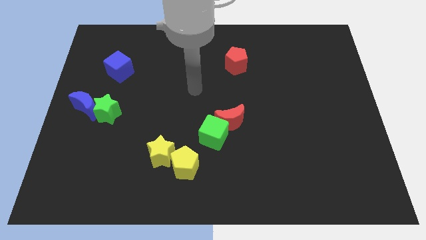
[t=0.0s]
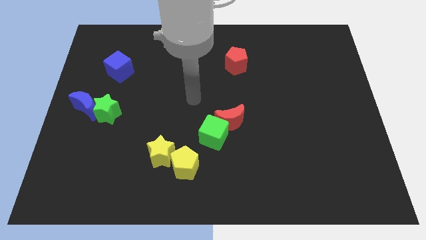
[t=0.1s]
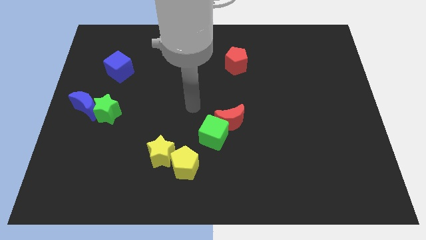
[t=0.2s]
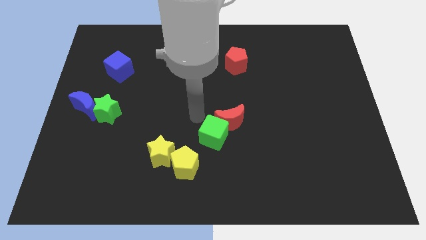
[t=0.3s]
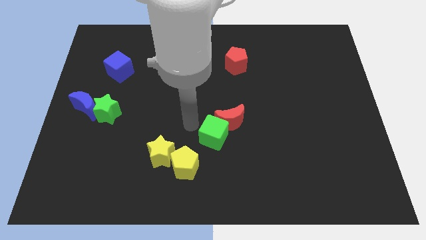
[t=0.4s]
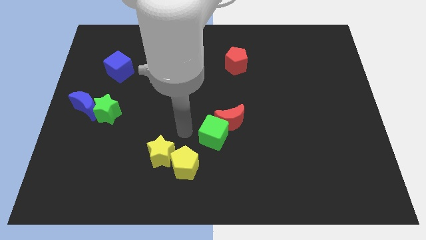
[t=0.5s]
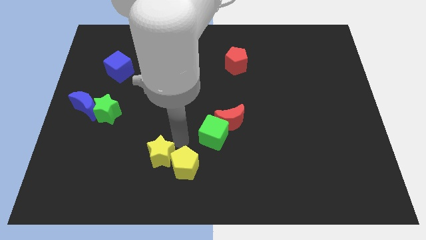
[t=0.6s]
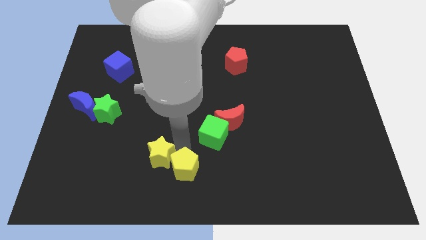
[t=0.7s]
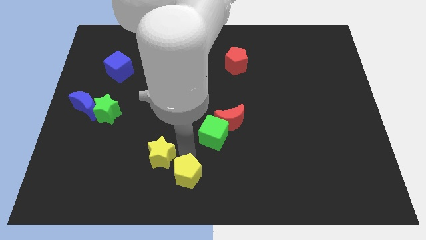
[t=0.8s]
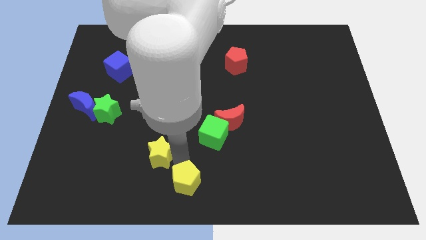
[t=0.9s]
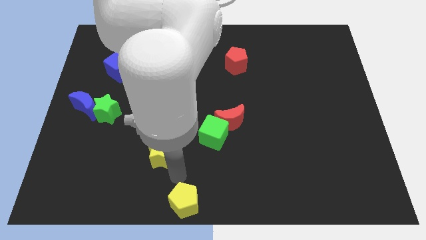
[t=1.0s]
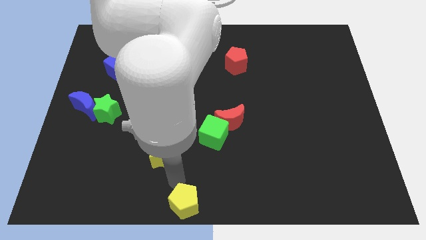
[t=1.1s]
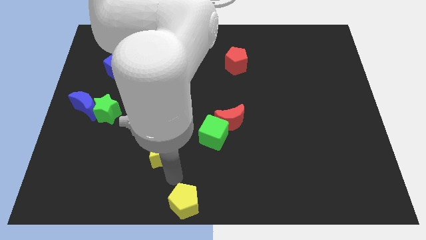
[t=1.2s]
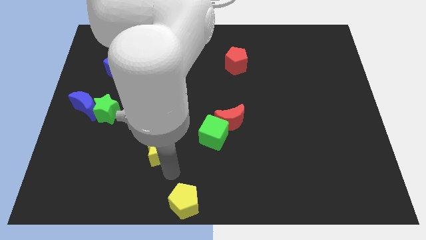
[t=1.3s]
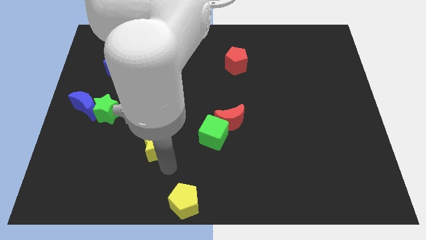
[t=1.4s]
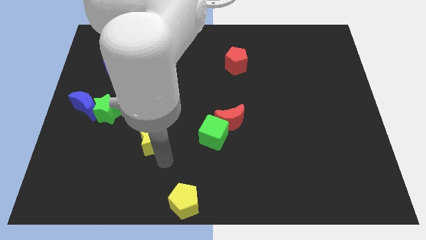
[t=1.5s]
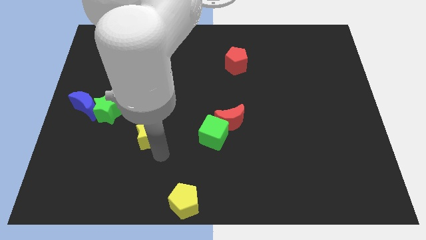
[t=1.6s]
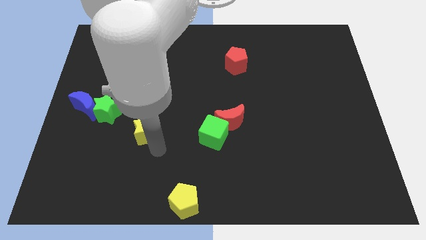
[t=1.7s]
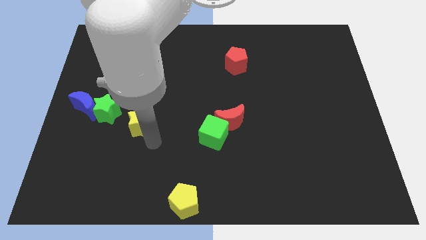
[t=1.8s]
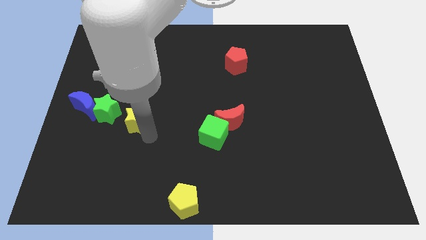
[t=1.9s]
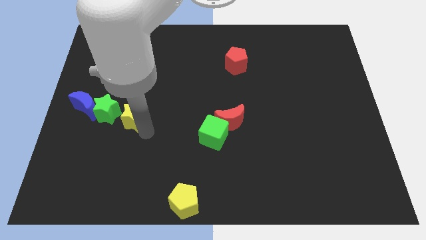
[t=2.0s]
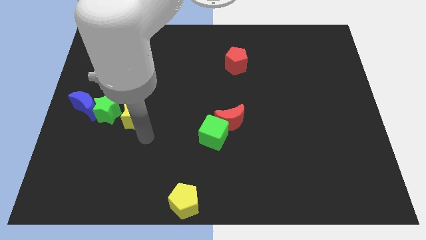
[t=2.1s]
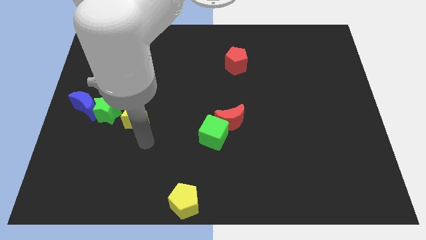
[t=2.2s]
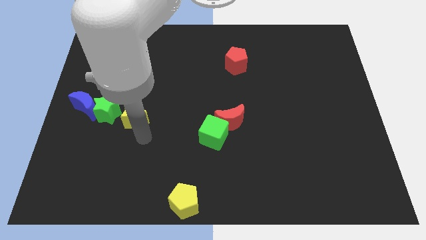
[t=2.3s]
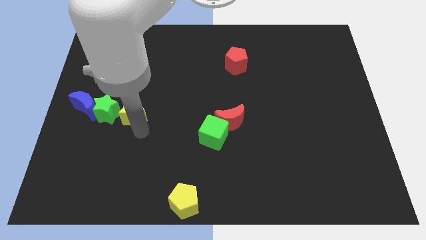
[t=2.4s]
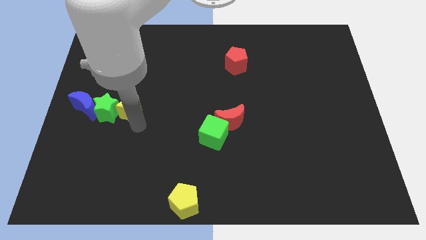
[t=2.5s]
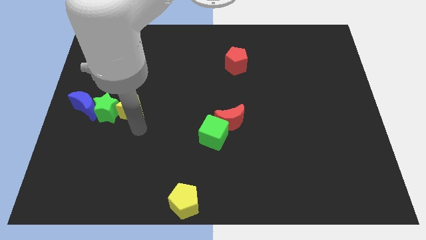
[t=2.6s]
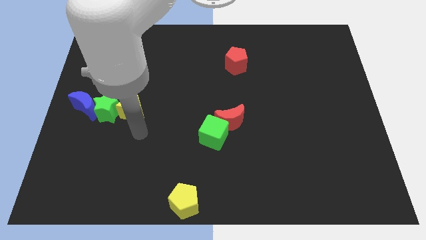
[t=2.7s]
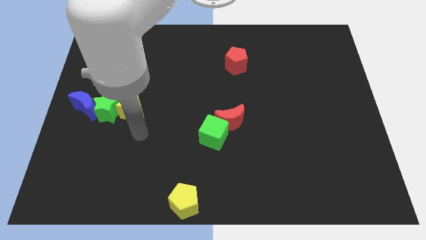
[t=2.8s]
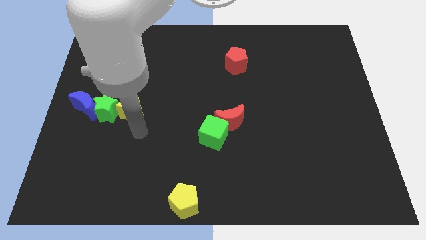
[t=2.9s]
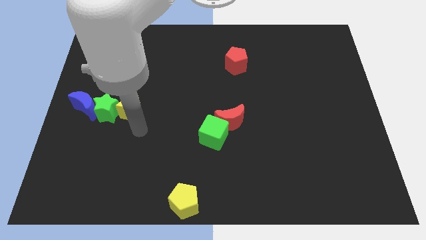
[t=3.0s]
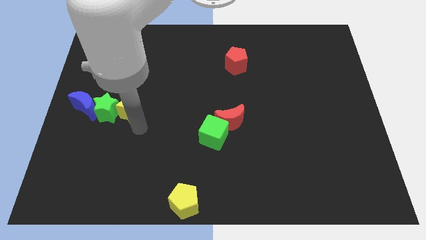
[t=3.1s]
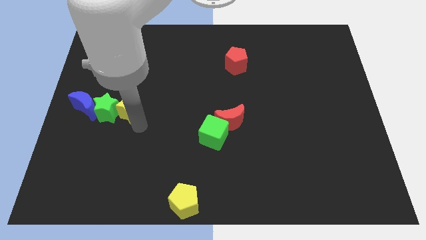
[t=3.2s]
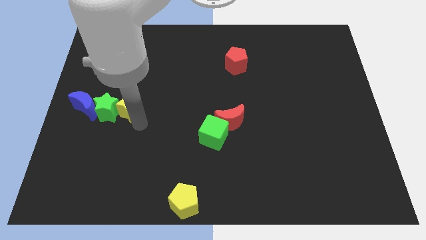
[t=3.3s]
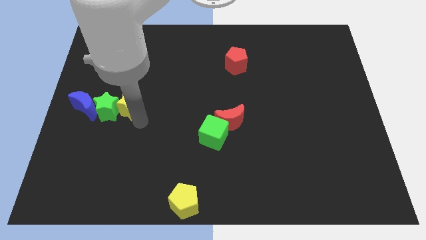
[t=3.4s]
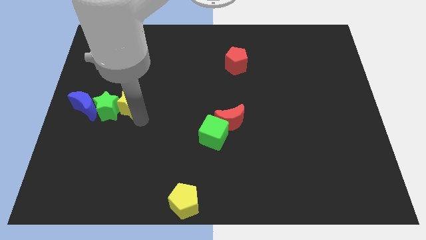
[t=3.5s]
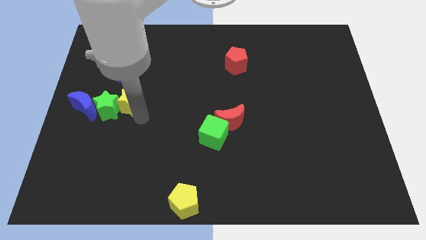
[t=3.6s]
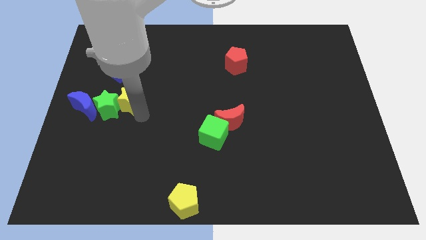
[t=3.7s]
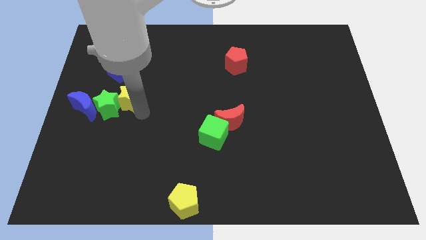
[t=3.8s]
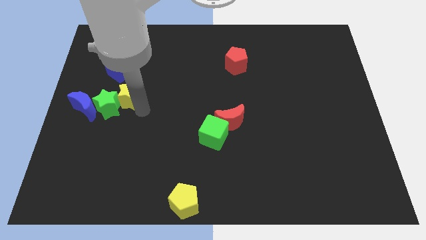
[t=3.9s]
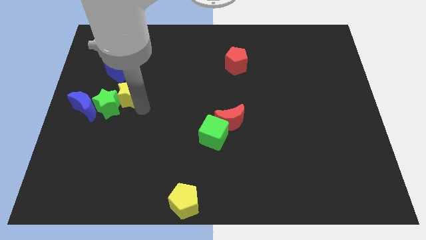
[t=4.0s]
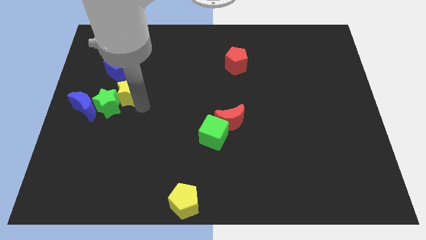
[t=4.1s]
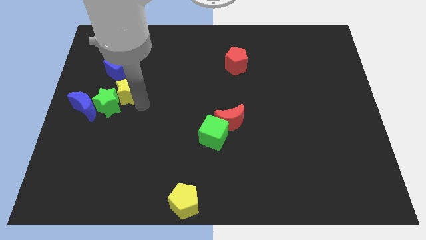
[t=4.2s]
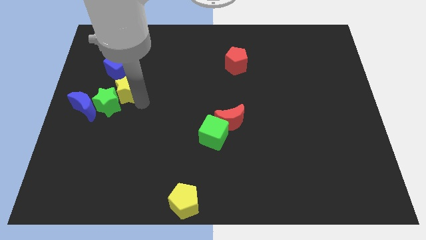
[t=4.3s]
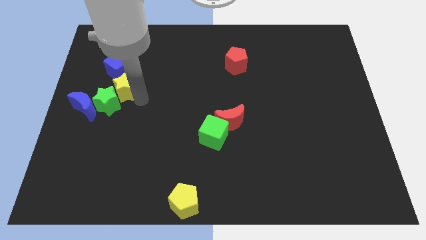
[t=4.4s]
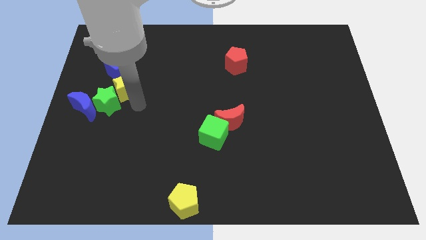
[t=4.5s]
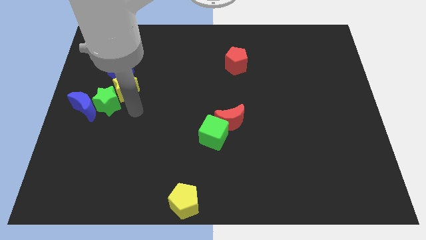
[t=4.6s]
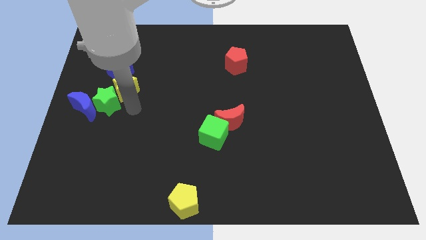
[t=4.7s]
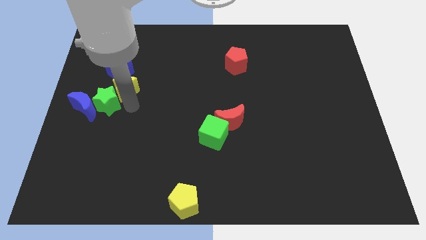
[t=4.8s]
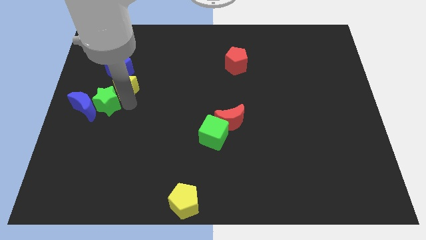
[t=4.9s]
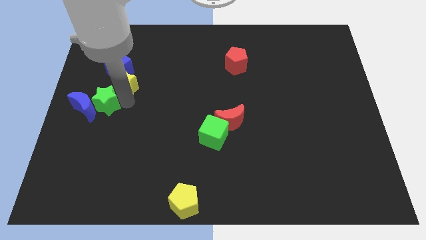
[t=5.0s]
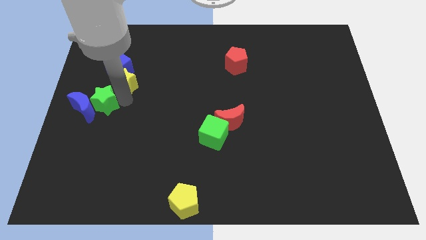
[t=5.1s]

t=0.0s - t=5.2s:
push the yellow star towards the blue cube
